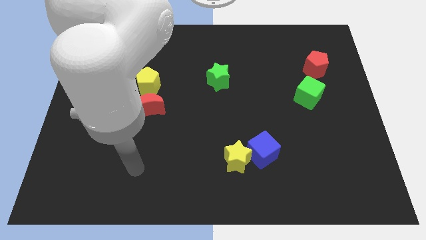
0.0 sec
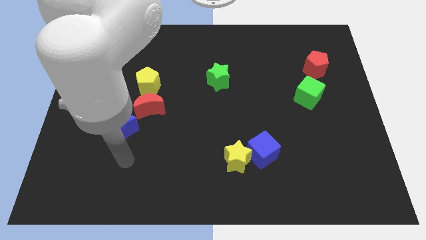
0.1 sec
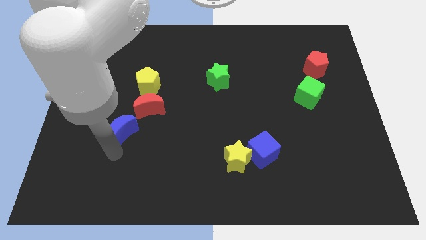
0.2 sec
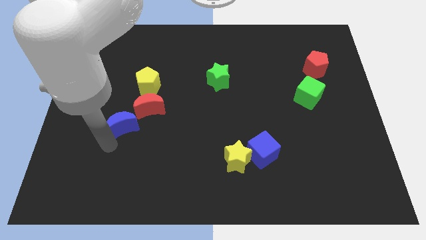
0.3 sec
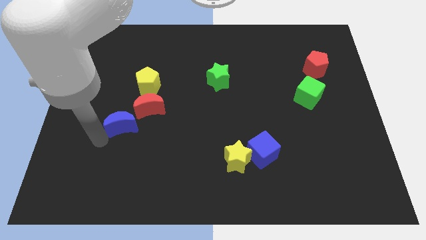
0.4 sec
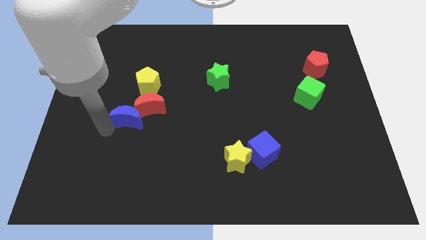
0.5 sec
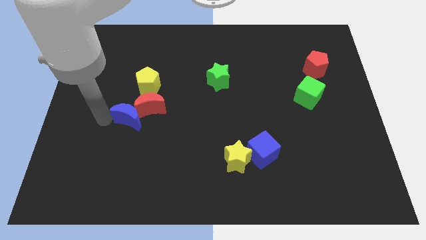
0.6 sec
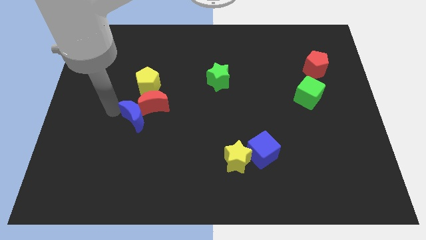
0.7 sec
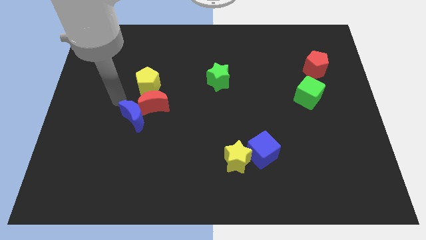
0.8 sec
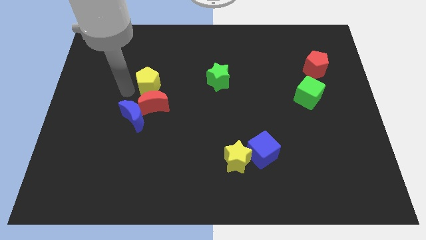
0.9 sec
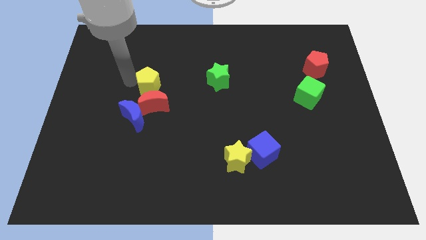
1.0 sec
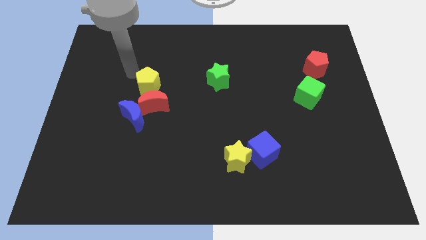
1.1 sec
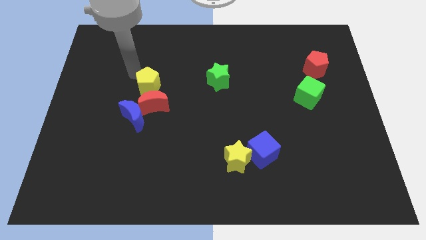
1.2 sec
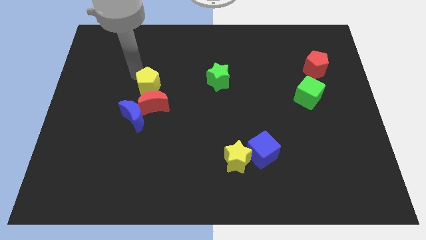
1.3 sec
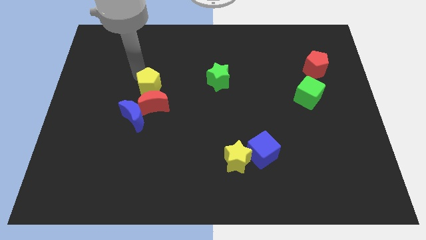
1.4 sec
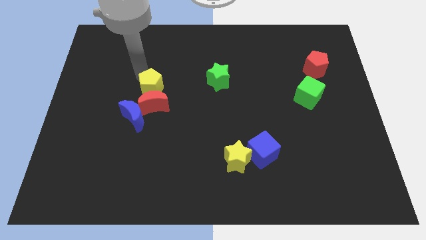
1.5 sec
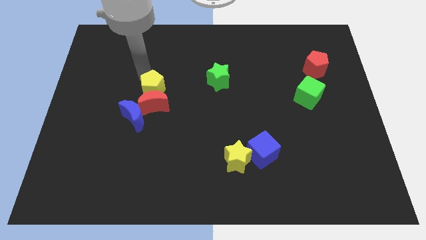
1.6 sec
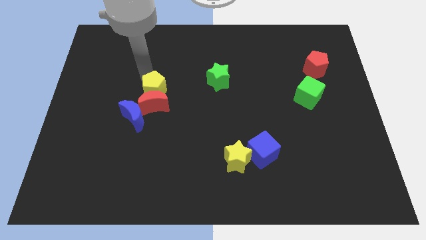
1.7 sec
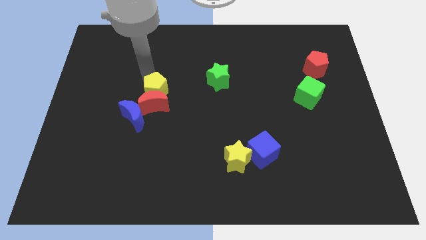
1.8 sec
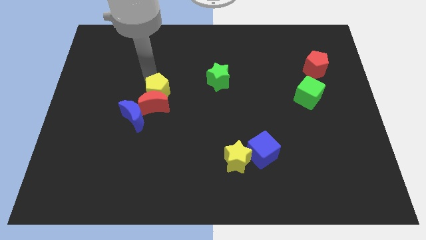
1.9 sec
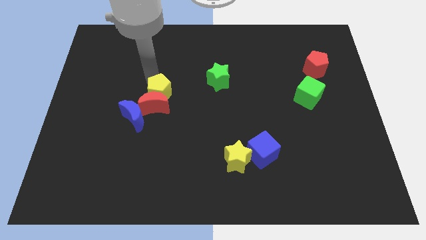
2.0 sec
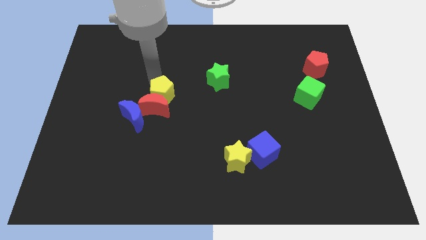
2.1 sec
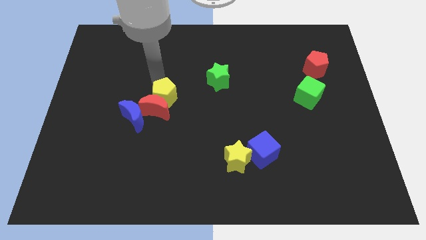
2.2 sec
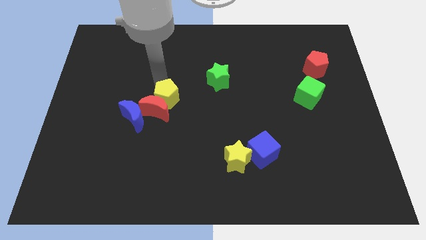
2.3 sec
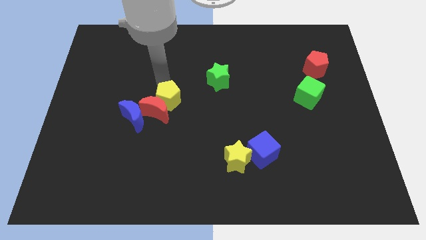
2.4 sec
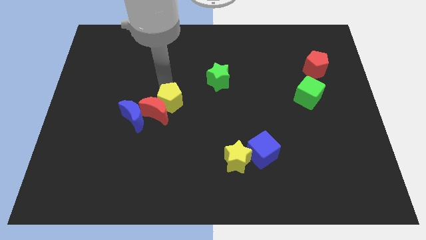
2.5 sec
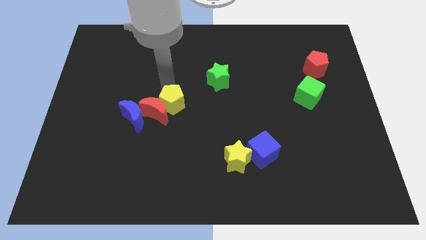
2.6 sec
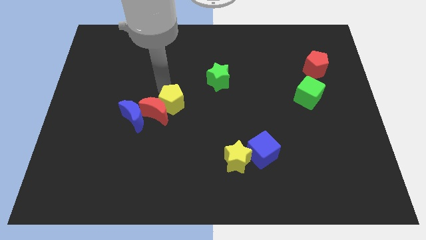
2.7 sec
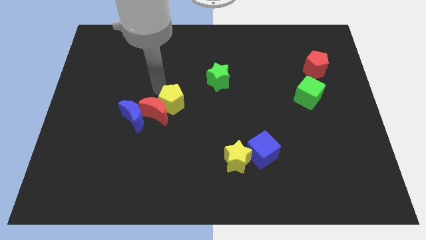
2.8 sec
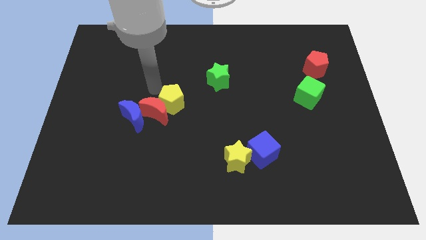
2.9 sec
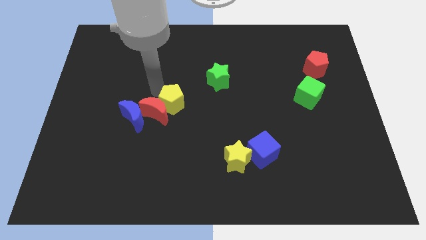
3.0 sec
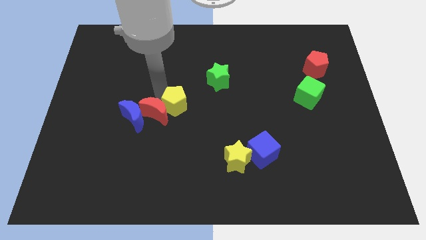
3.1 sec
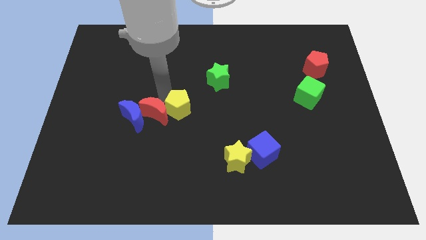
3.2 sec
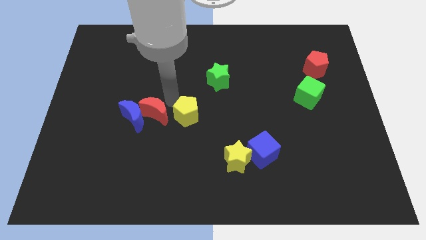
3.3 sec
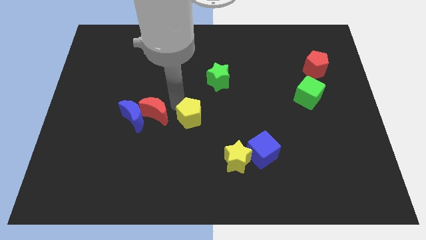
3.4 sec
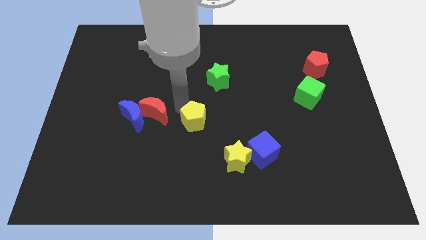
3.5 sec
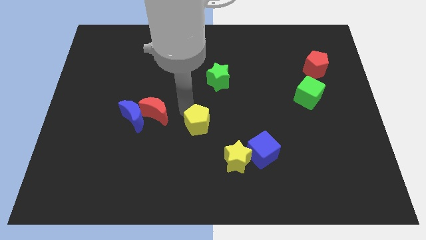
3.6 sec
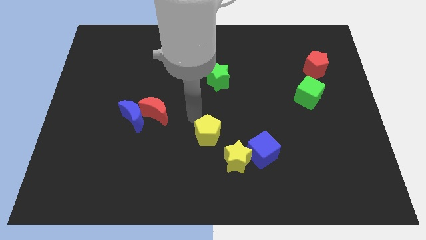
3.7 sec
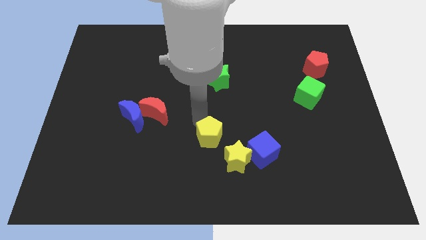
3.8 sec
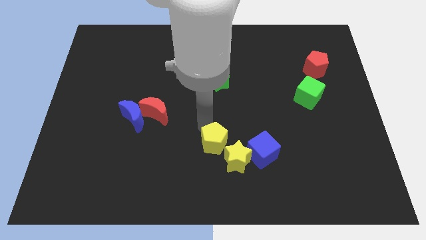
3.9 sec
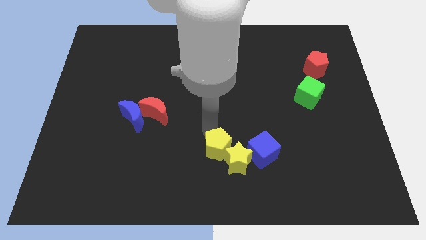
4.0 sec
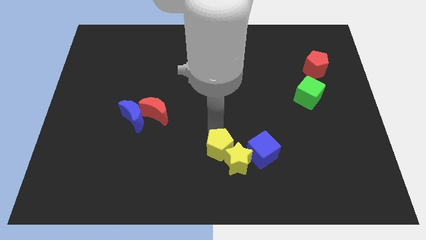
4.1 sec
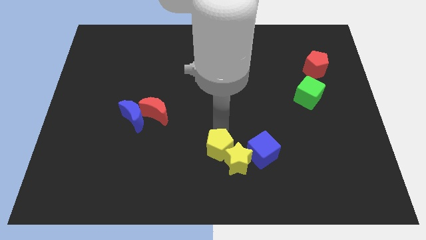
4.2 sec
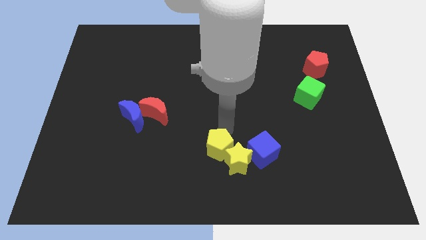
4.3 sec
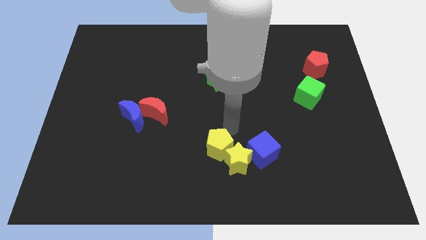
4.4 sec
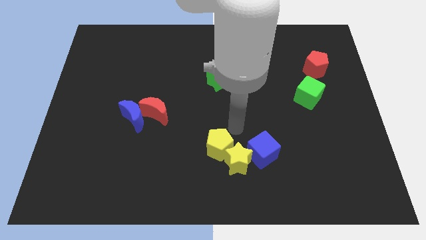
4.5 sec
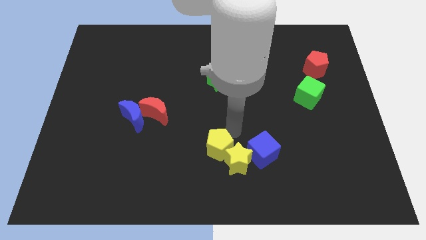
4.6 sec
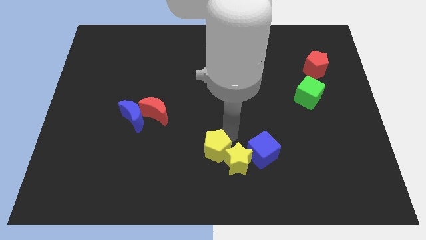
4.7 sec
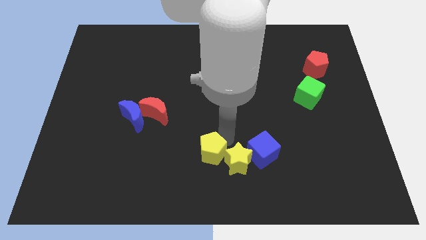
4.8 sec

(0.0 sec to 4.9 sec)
move the yellow pentagon to the bottom

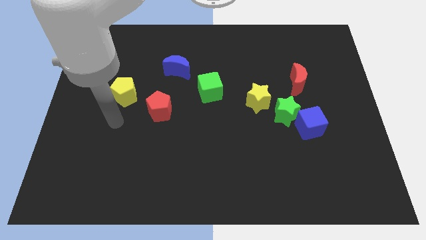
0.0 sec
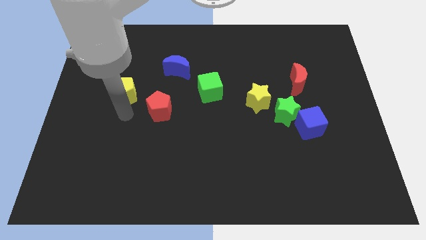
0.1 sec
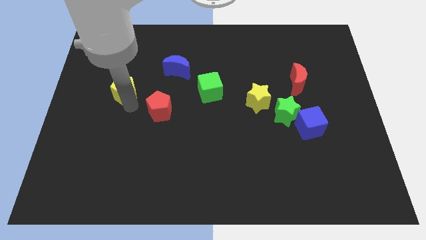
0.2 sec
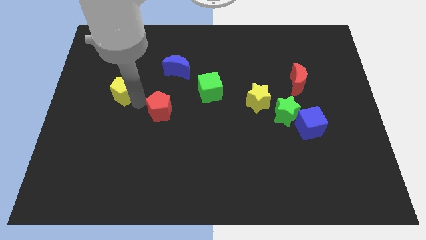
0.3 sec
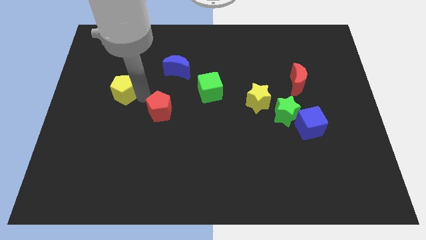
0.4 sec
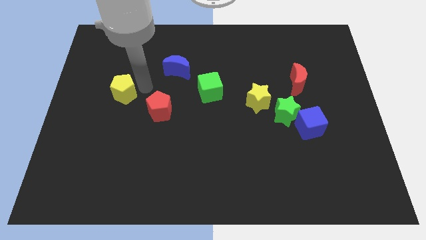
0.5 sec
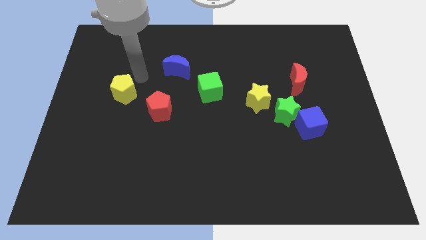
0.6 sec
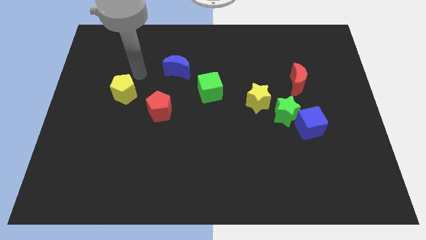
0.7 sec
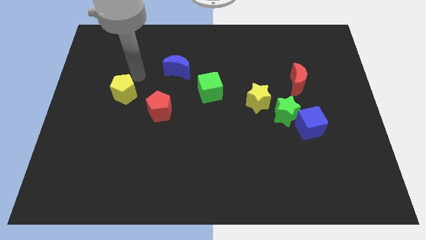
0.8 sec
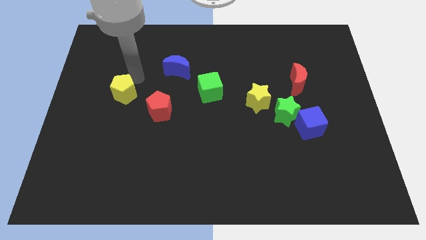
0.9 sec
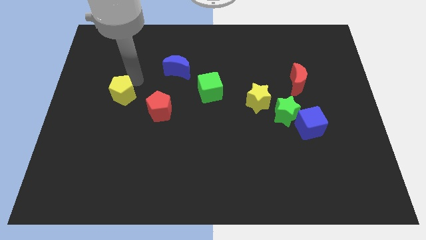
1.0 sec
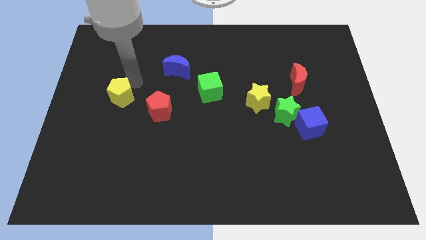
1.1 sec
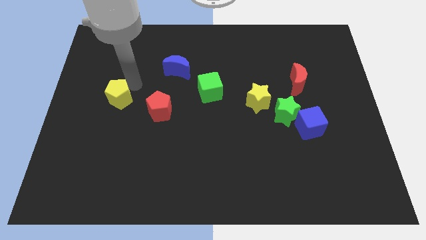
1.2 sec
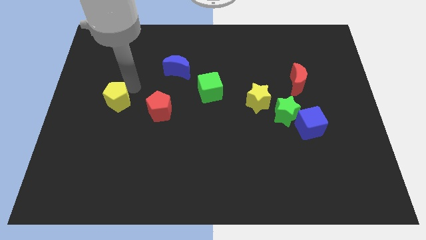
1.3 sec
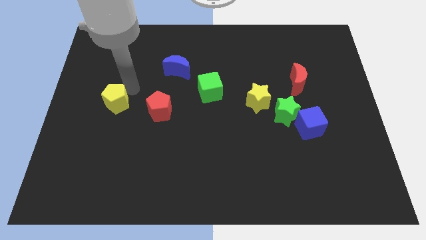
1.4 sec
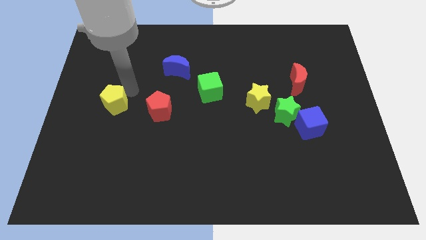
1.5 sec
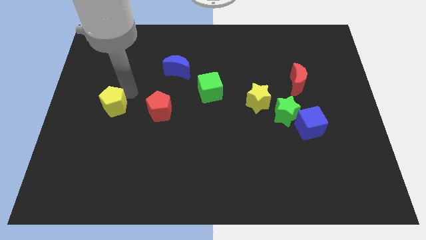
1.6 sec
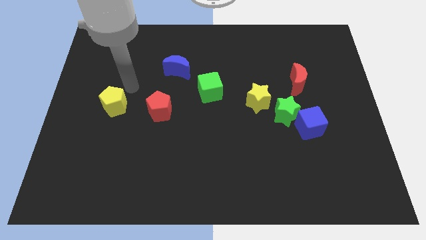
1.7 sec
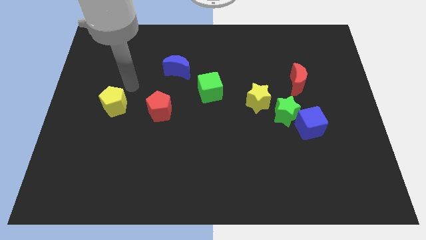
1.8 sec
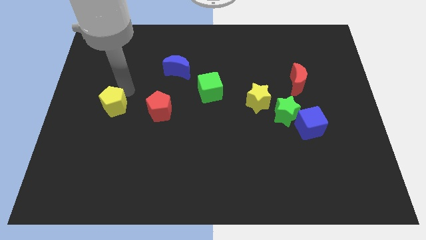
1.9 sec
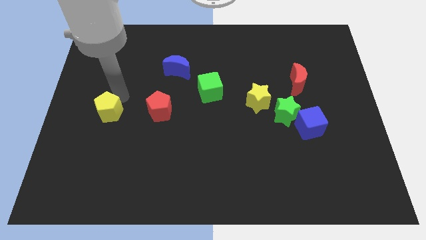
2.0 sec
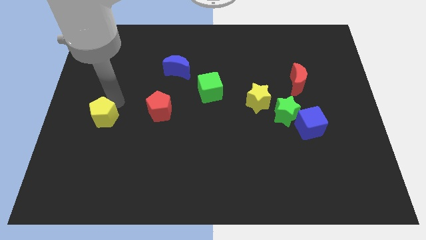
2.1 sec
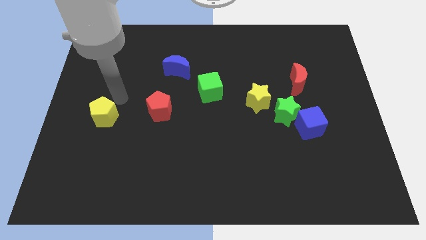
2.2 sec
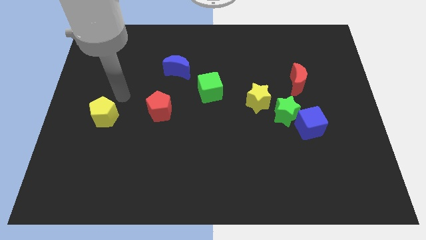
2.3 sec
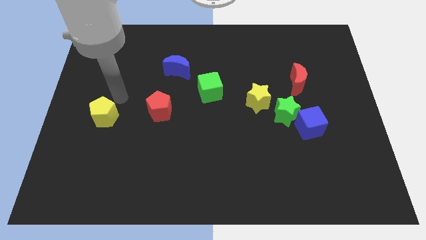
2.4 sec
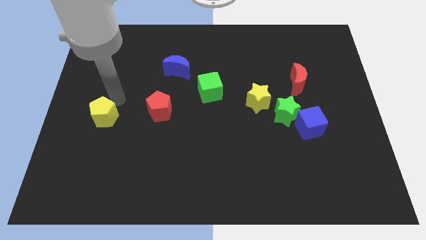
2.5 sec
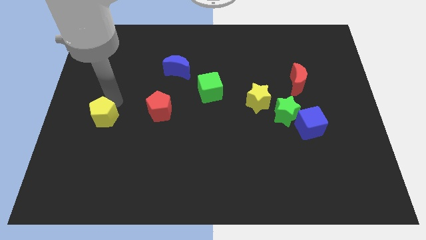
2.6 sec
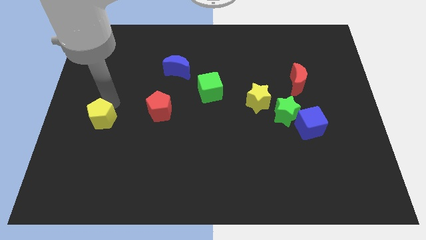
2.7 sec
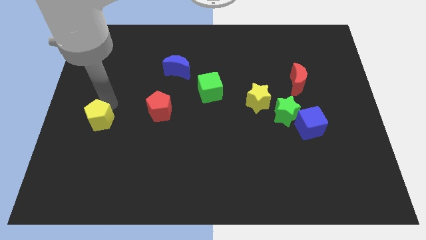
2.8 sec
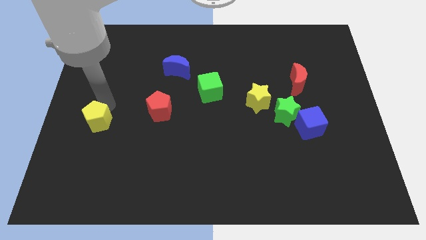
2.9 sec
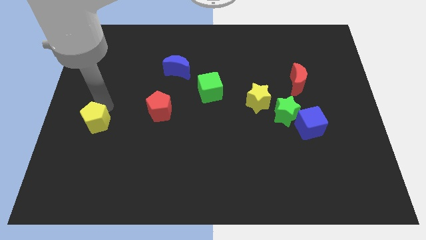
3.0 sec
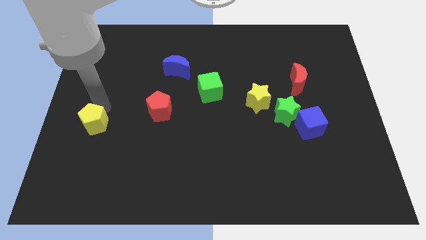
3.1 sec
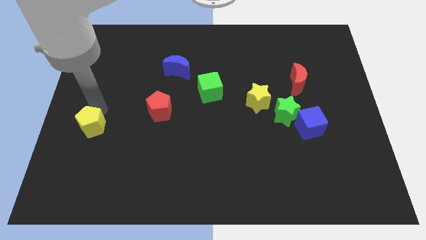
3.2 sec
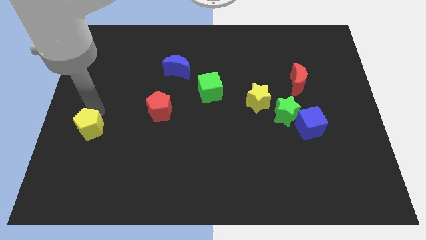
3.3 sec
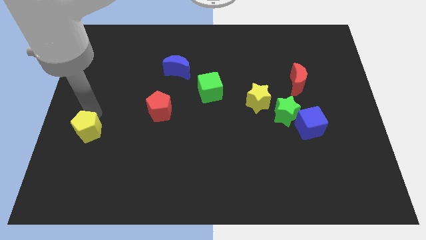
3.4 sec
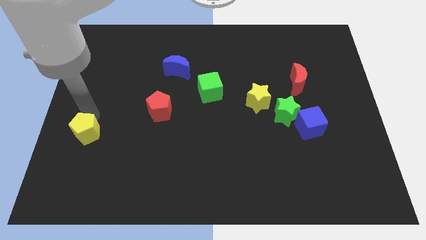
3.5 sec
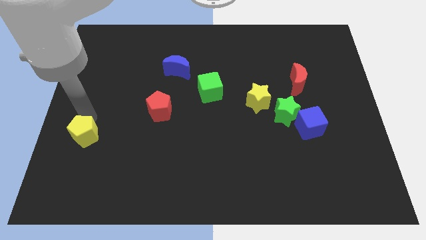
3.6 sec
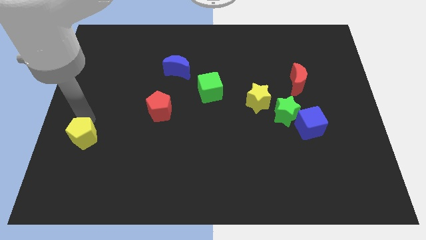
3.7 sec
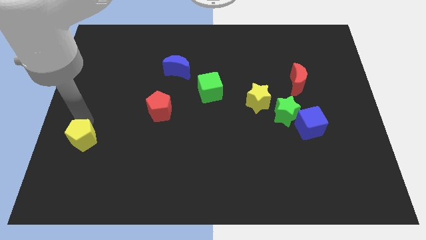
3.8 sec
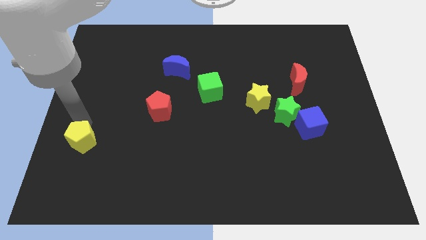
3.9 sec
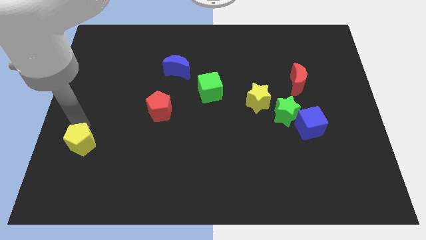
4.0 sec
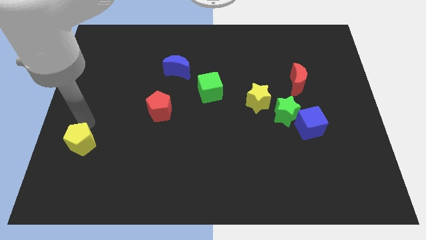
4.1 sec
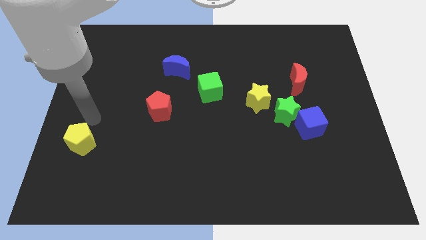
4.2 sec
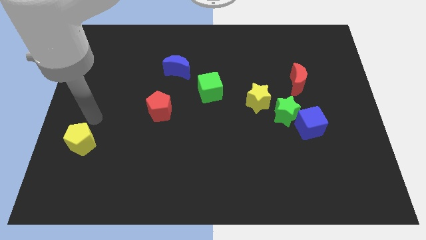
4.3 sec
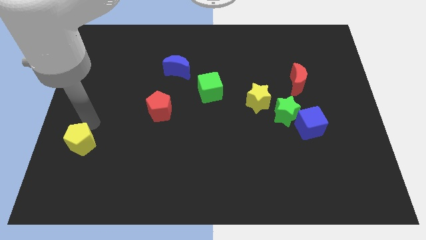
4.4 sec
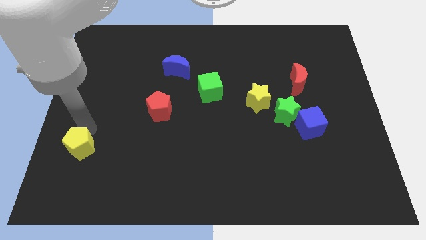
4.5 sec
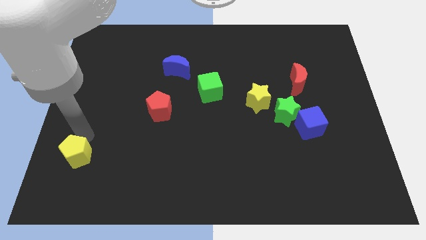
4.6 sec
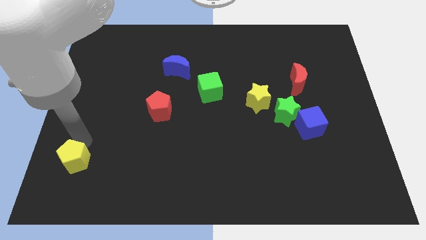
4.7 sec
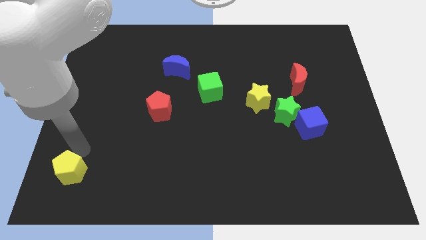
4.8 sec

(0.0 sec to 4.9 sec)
move the yellow pentagon to the bottom left
